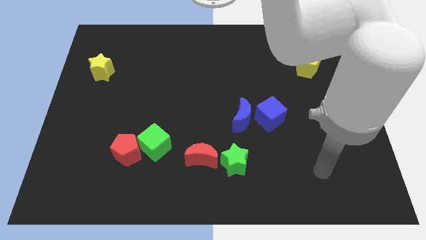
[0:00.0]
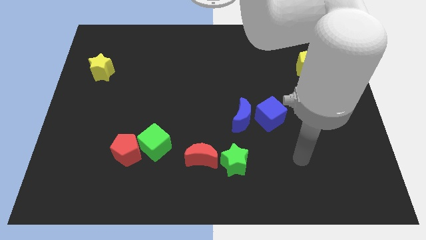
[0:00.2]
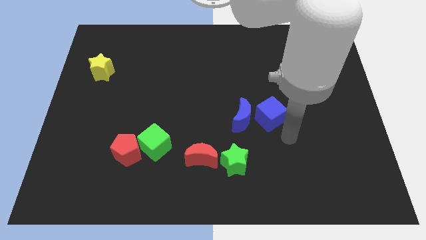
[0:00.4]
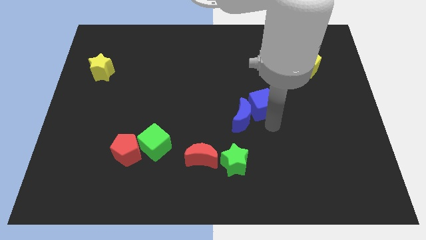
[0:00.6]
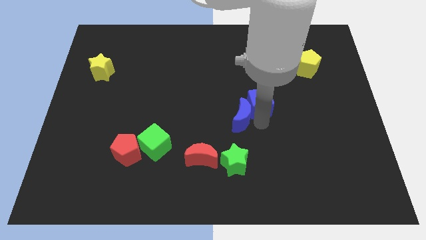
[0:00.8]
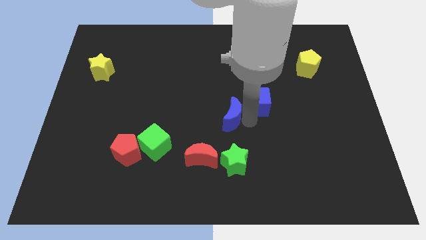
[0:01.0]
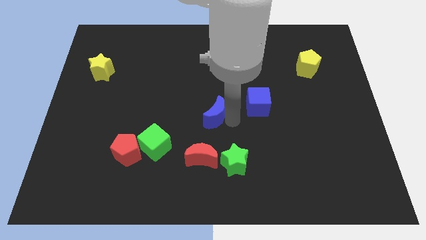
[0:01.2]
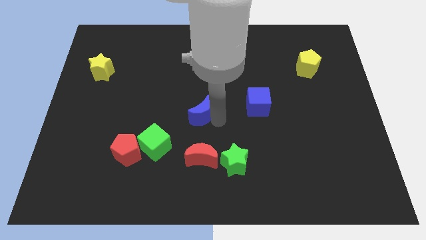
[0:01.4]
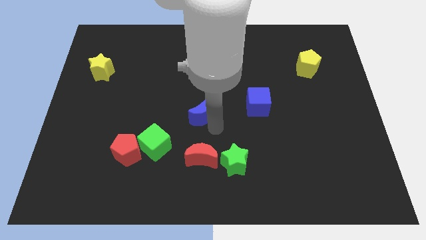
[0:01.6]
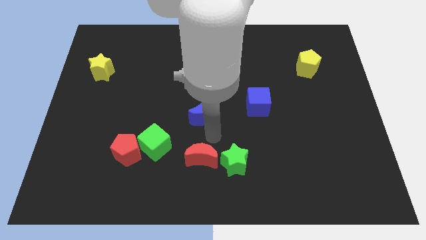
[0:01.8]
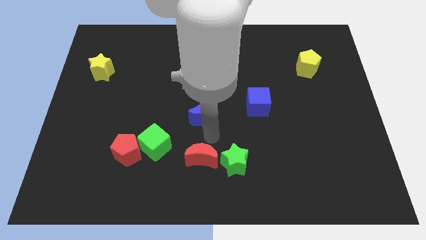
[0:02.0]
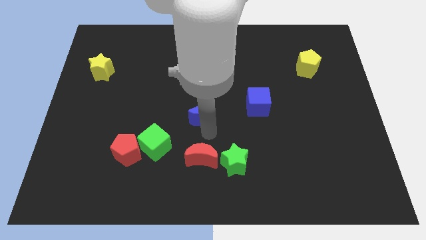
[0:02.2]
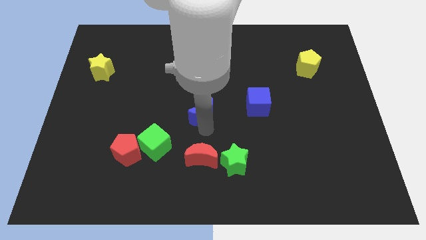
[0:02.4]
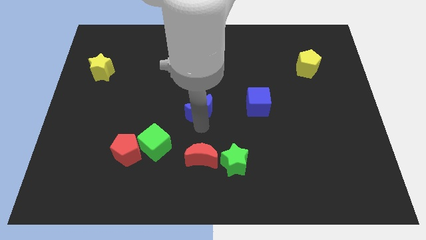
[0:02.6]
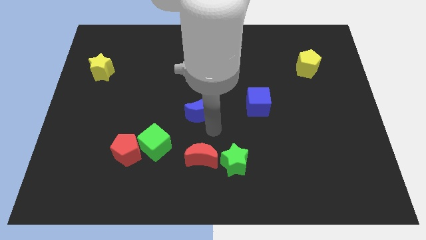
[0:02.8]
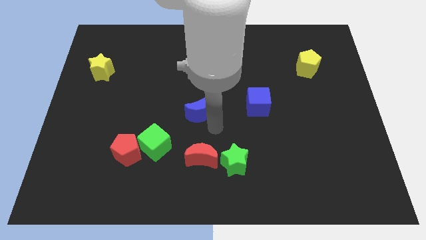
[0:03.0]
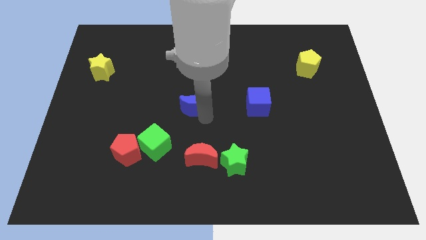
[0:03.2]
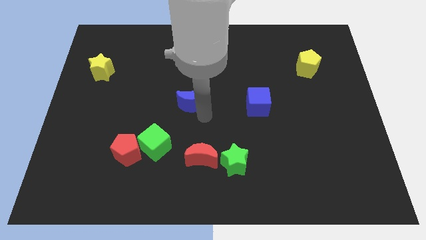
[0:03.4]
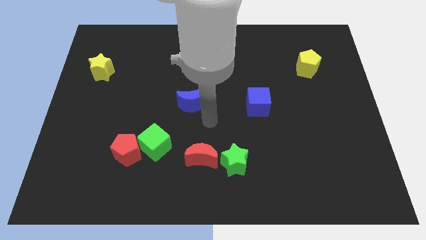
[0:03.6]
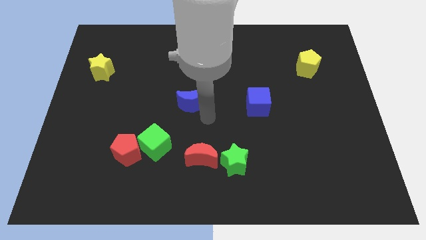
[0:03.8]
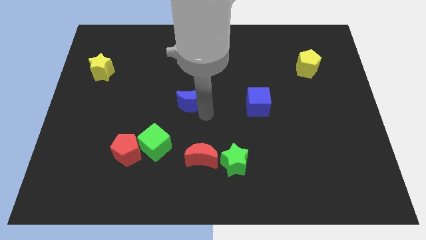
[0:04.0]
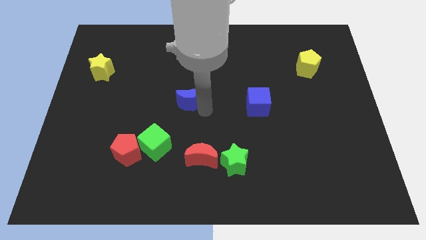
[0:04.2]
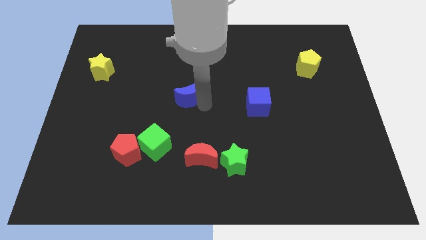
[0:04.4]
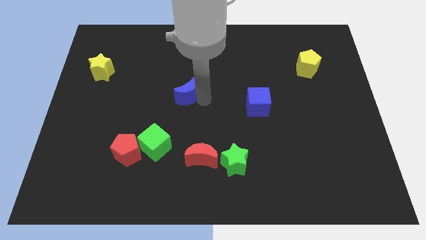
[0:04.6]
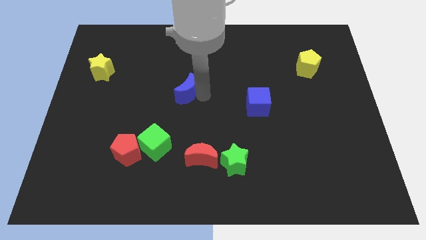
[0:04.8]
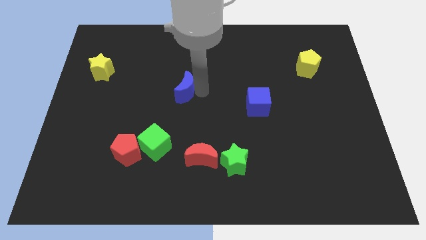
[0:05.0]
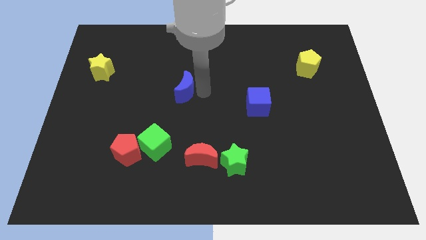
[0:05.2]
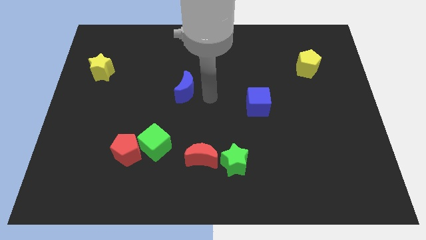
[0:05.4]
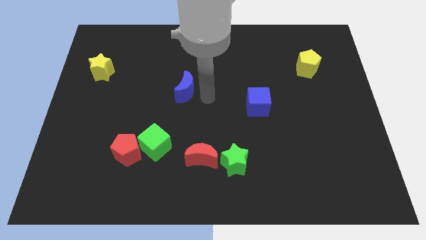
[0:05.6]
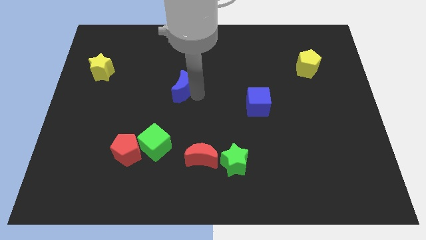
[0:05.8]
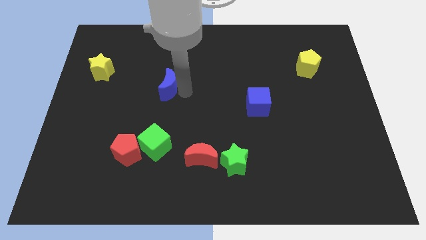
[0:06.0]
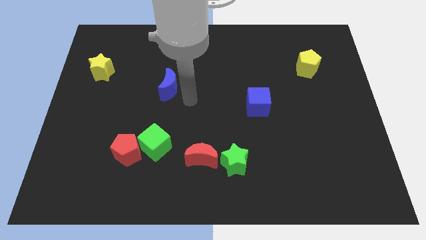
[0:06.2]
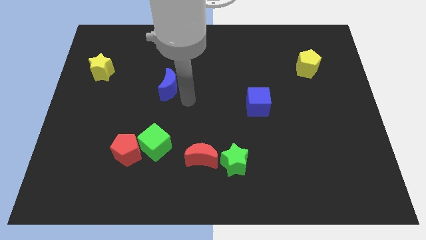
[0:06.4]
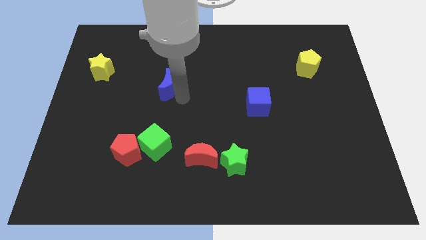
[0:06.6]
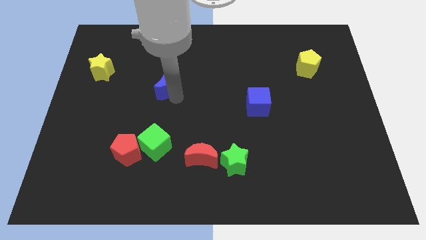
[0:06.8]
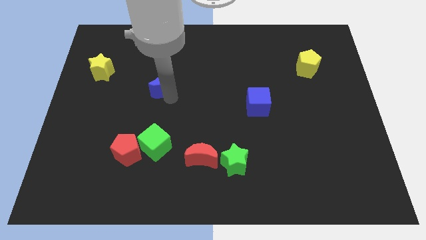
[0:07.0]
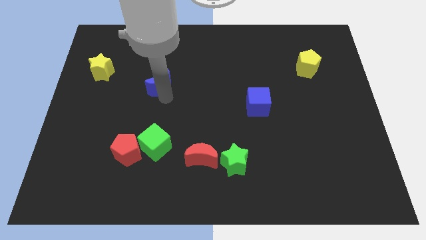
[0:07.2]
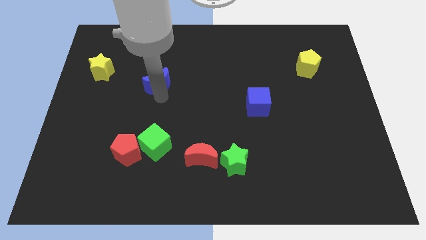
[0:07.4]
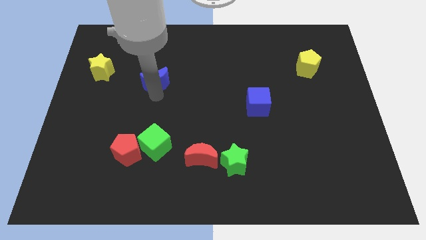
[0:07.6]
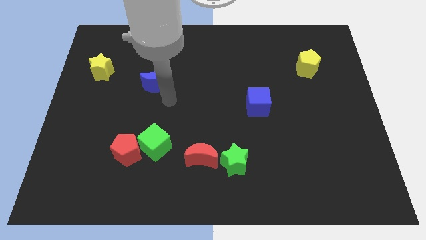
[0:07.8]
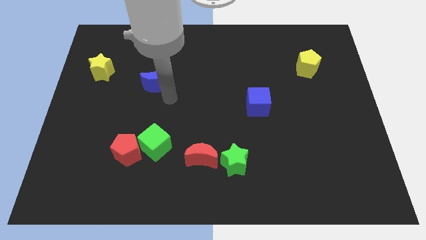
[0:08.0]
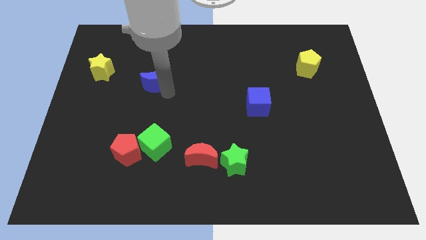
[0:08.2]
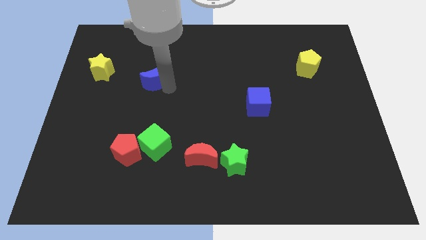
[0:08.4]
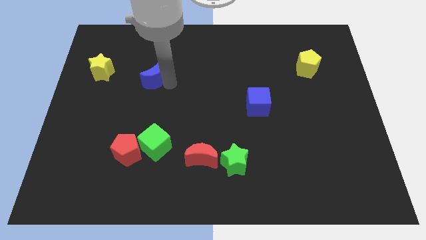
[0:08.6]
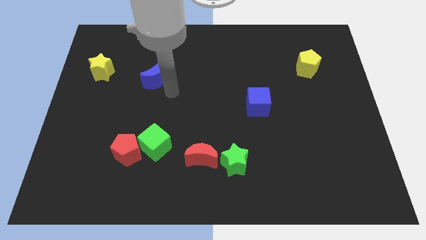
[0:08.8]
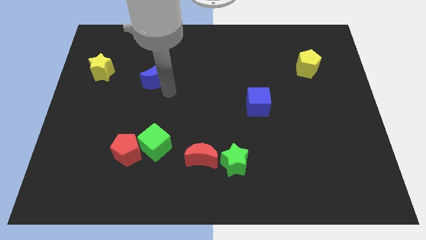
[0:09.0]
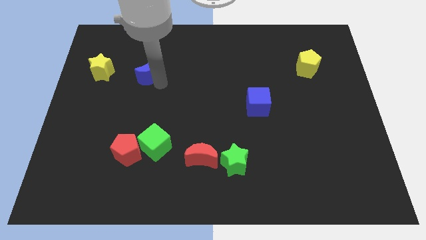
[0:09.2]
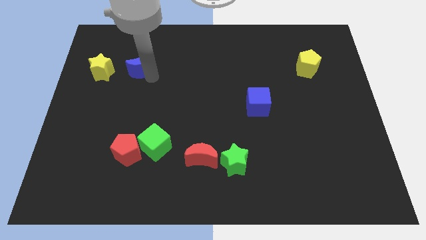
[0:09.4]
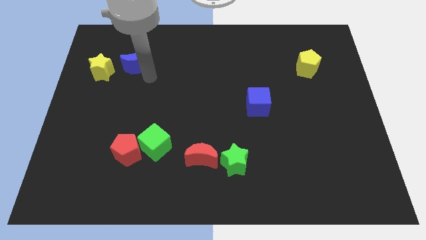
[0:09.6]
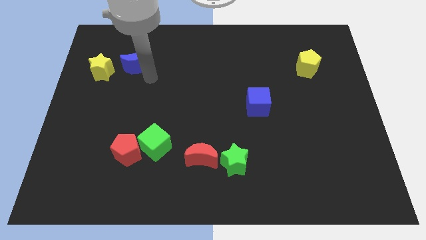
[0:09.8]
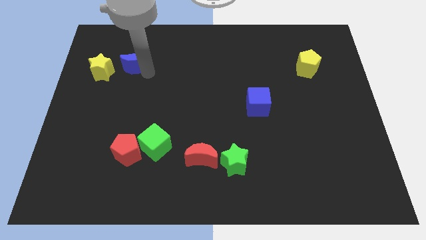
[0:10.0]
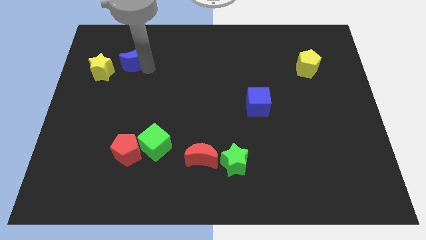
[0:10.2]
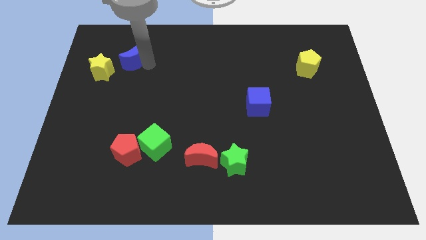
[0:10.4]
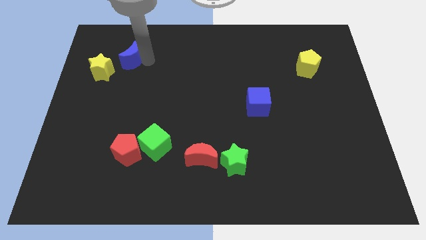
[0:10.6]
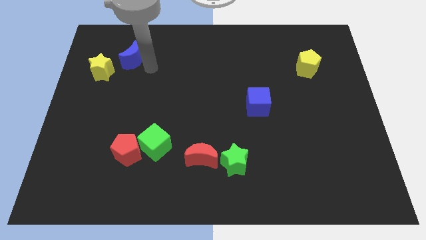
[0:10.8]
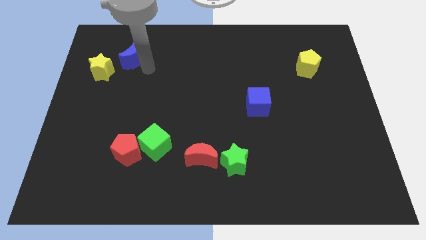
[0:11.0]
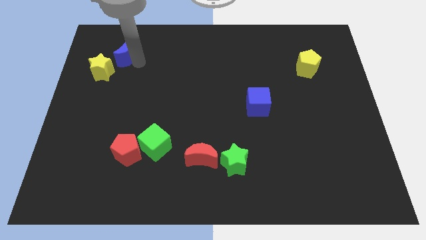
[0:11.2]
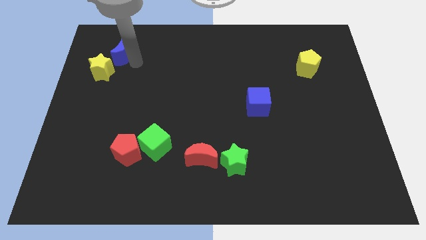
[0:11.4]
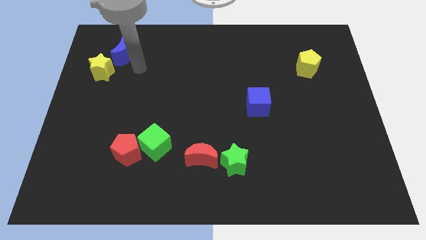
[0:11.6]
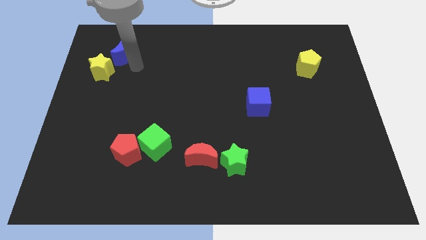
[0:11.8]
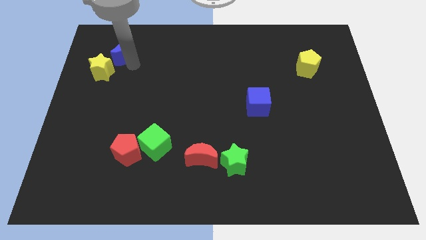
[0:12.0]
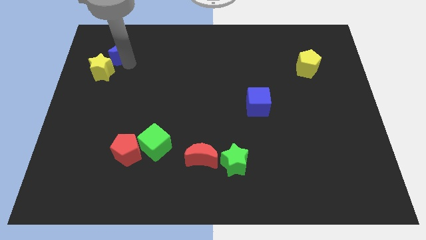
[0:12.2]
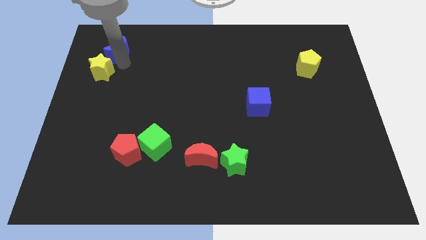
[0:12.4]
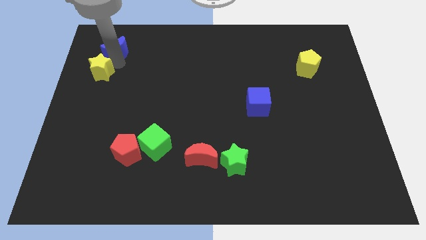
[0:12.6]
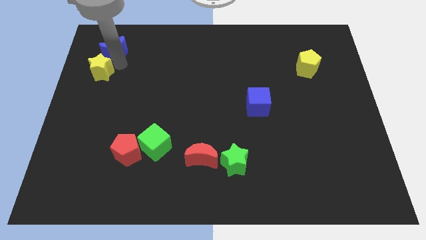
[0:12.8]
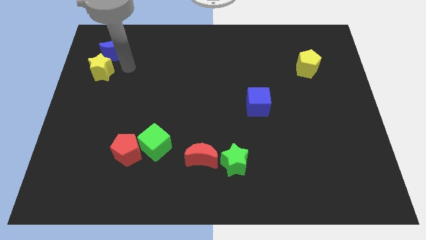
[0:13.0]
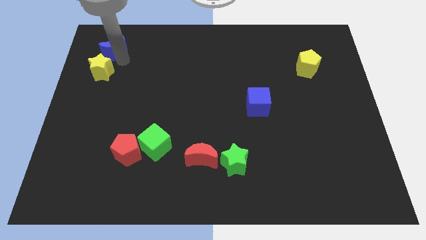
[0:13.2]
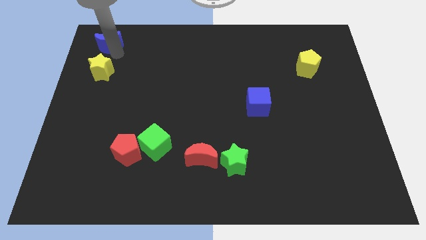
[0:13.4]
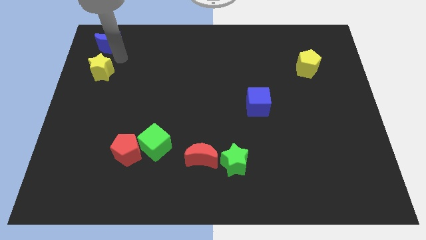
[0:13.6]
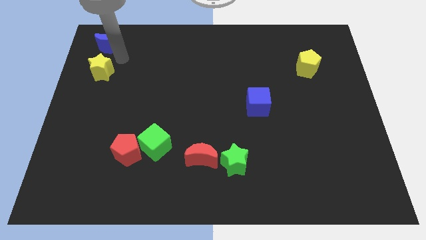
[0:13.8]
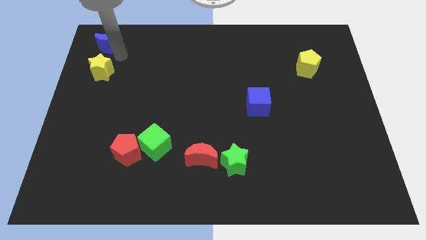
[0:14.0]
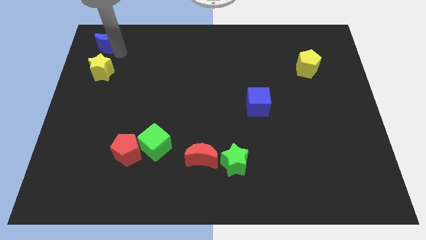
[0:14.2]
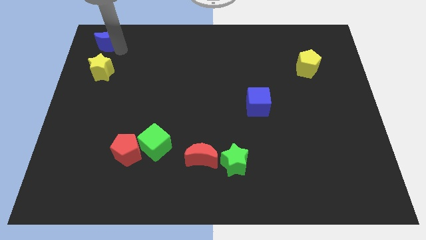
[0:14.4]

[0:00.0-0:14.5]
push the blue moon to the upper left corner
